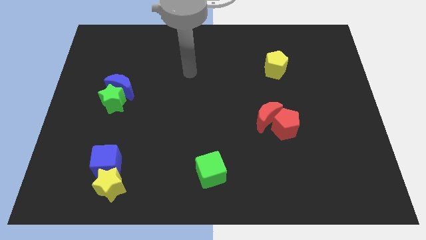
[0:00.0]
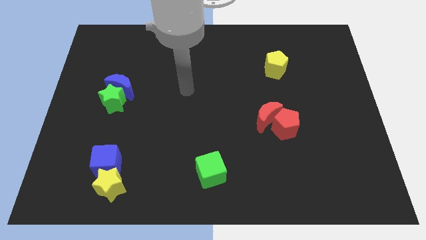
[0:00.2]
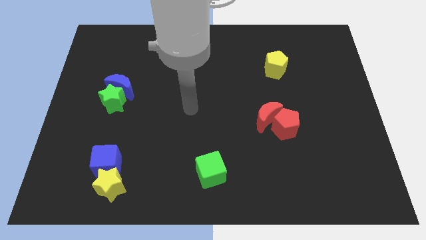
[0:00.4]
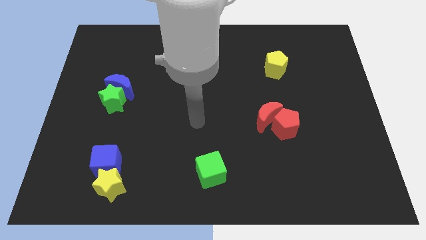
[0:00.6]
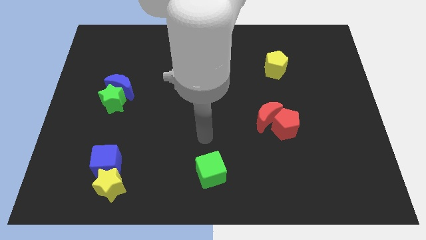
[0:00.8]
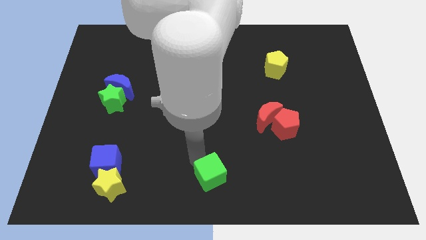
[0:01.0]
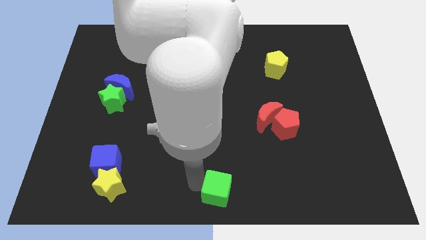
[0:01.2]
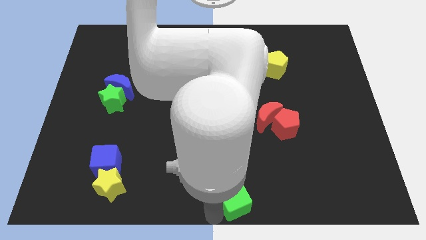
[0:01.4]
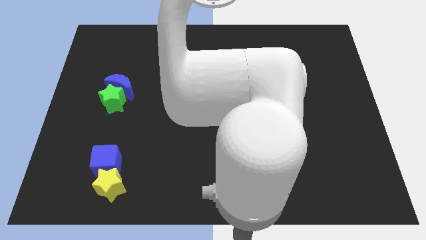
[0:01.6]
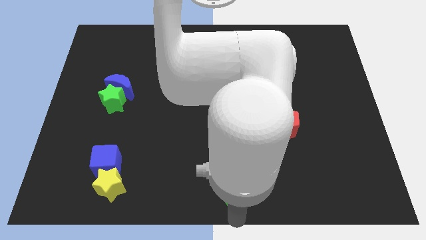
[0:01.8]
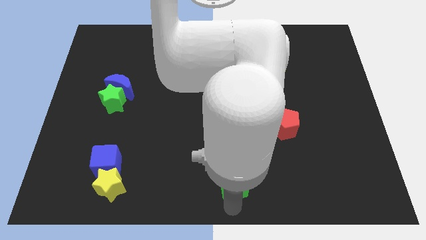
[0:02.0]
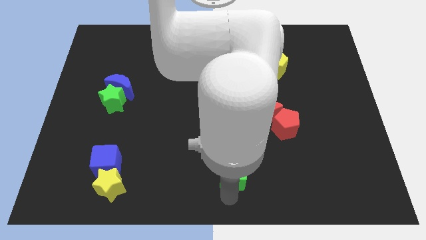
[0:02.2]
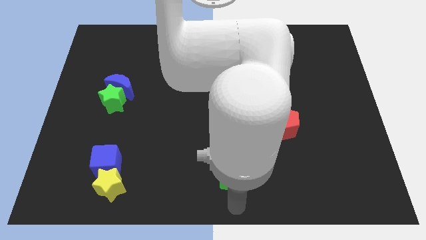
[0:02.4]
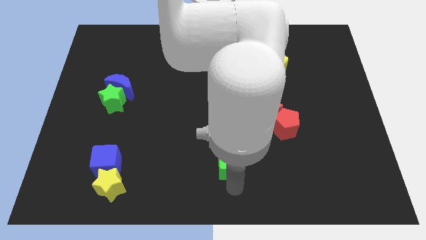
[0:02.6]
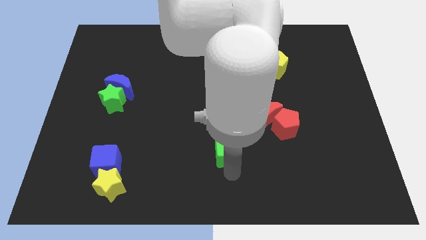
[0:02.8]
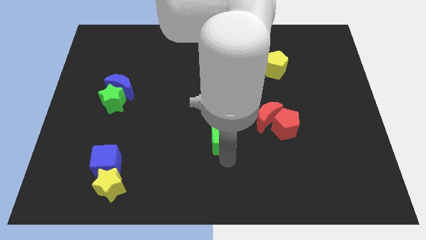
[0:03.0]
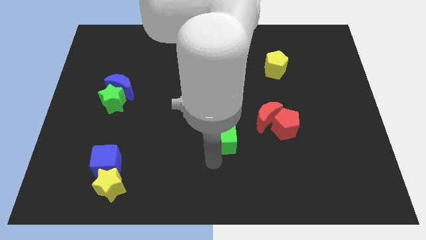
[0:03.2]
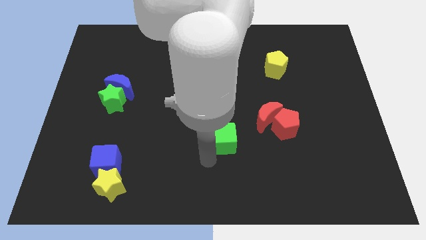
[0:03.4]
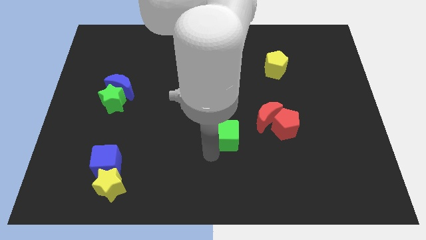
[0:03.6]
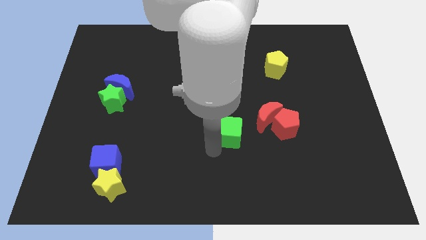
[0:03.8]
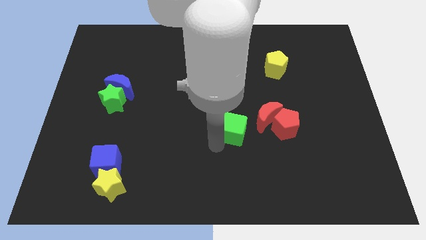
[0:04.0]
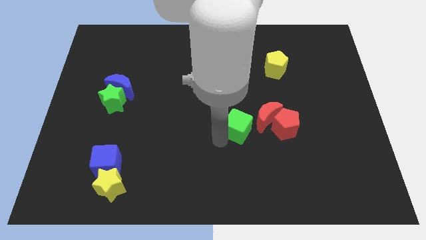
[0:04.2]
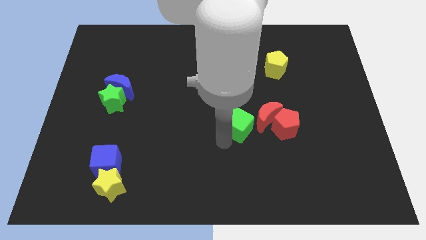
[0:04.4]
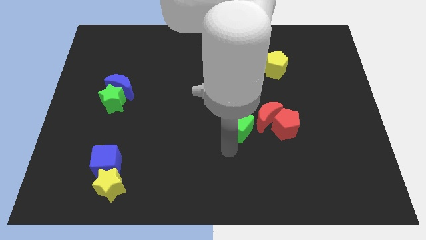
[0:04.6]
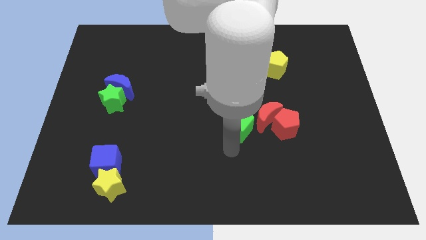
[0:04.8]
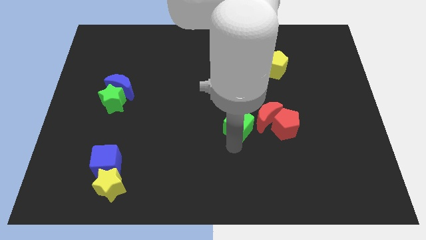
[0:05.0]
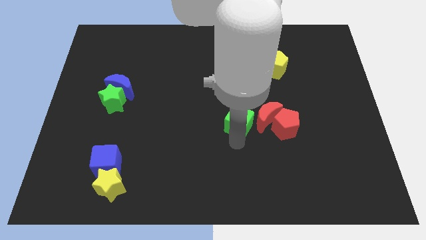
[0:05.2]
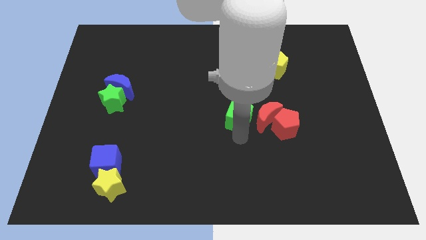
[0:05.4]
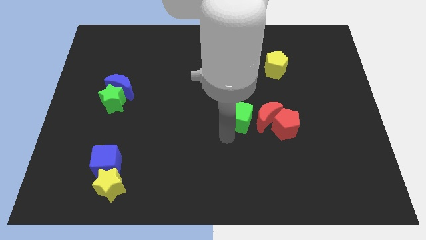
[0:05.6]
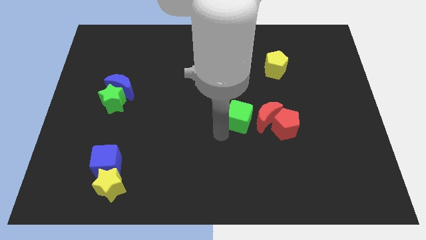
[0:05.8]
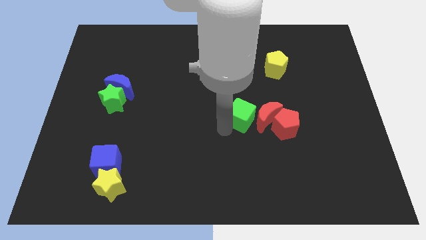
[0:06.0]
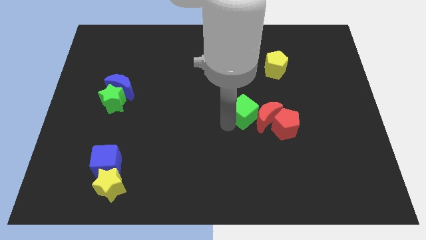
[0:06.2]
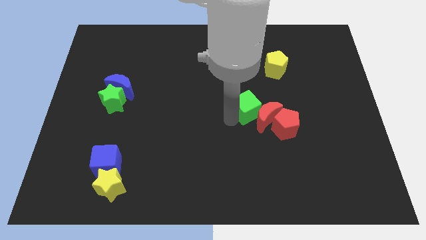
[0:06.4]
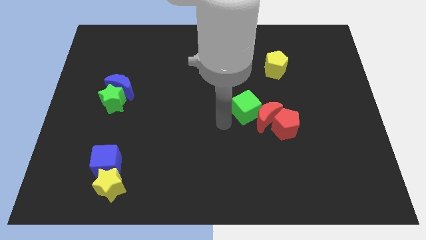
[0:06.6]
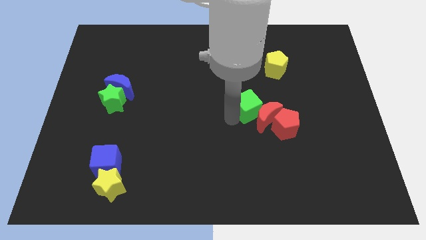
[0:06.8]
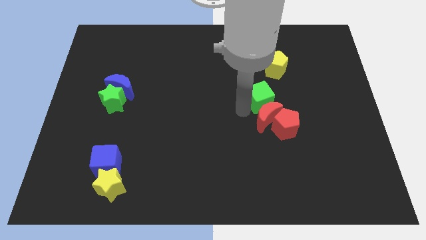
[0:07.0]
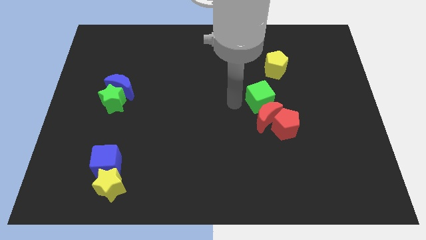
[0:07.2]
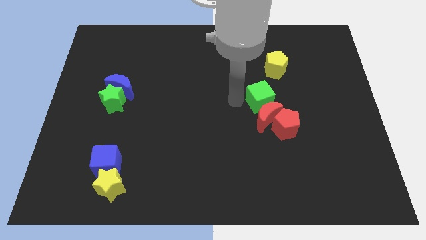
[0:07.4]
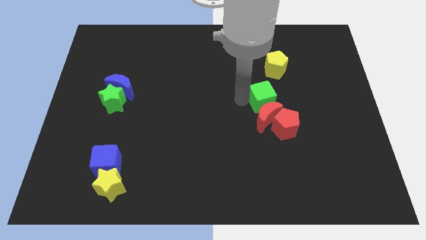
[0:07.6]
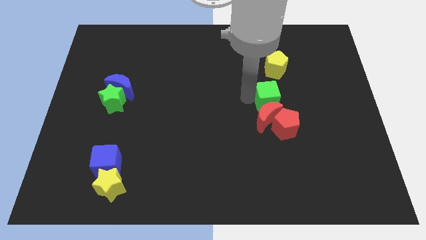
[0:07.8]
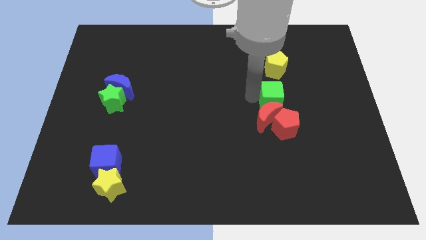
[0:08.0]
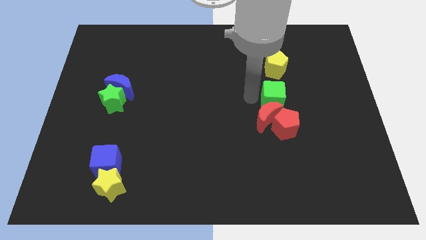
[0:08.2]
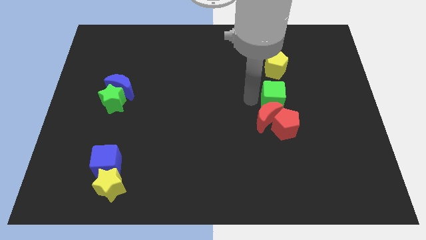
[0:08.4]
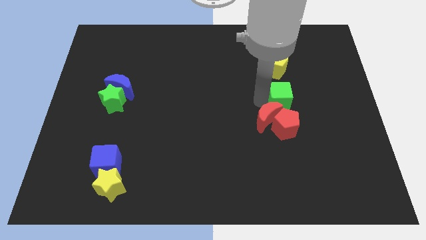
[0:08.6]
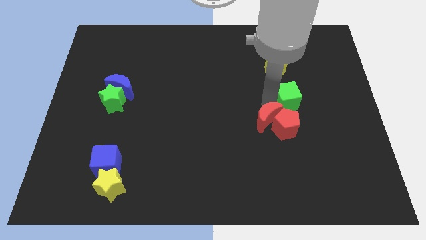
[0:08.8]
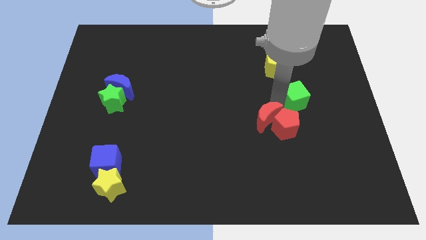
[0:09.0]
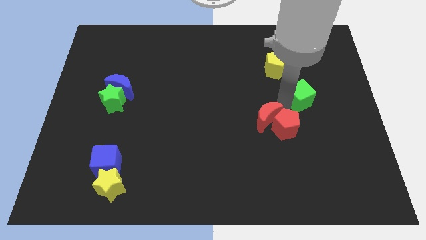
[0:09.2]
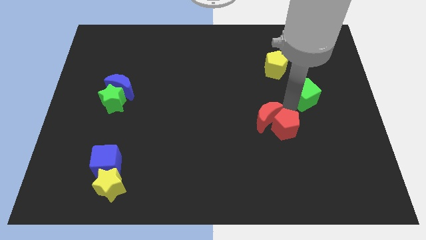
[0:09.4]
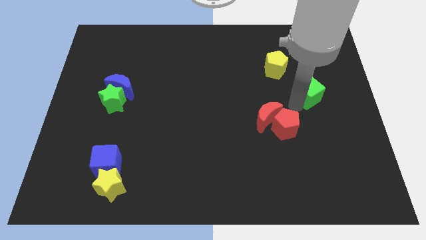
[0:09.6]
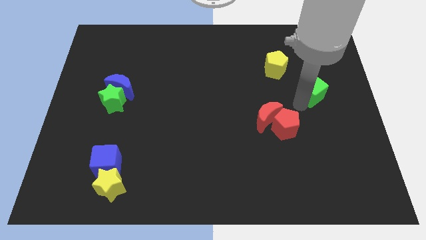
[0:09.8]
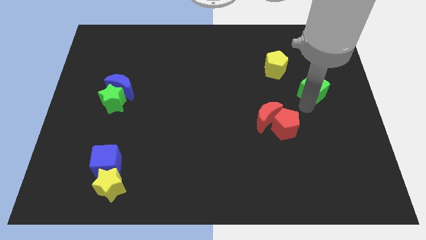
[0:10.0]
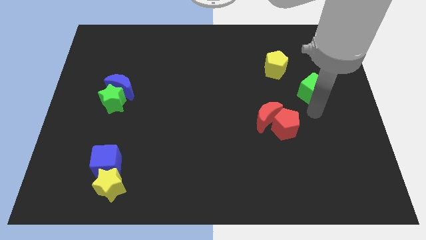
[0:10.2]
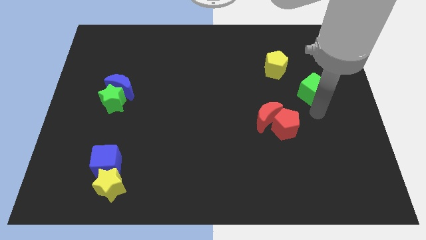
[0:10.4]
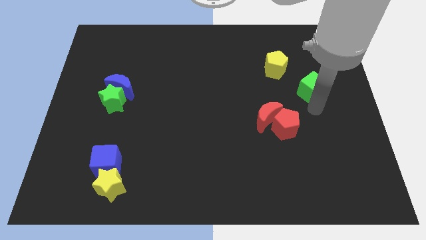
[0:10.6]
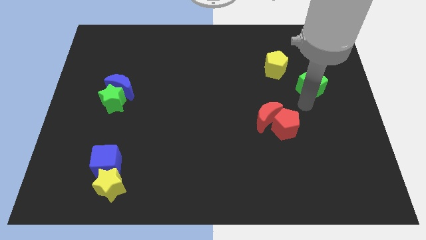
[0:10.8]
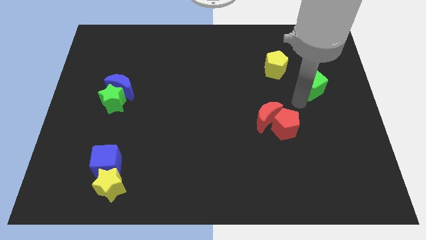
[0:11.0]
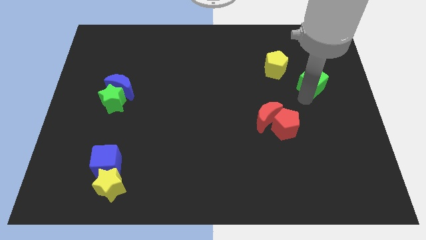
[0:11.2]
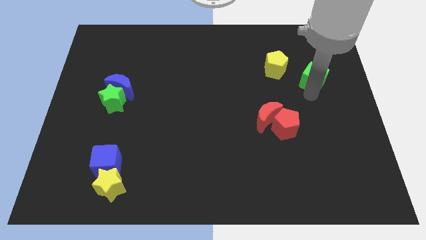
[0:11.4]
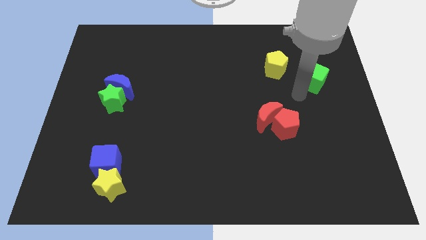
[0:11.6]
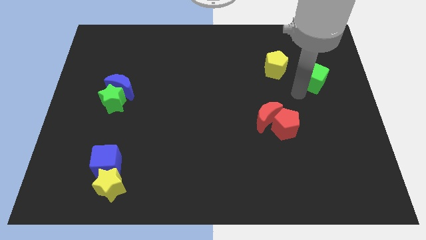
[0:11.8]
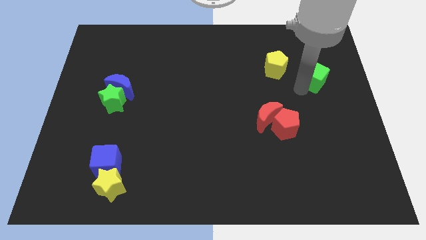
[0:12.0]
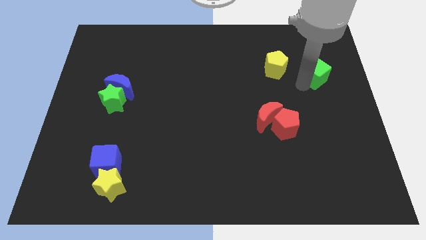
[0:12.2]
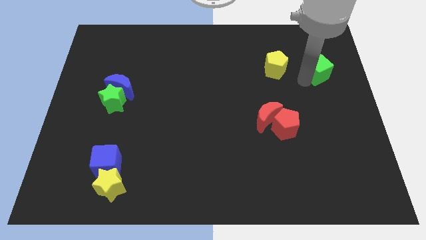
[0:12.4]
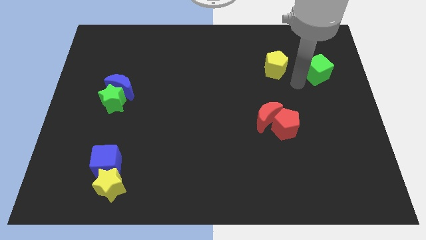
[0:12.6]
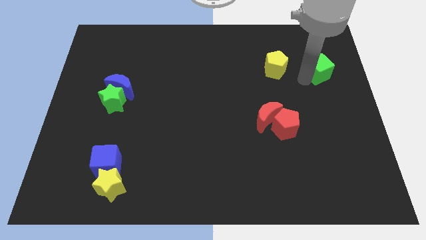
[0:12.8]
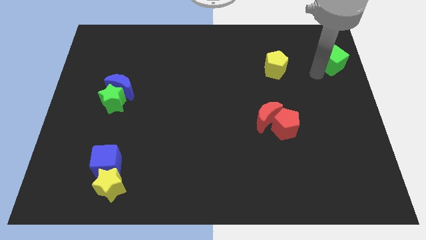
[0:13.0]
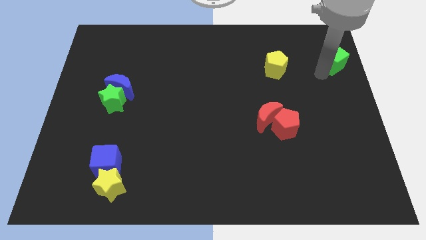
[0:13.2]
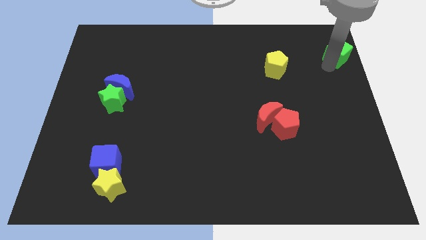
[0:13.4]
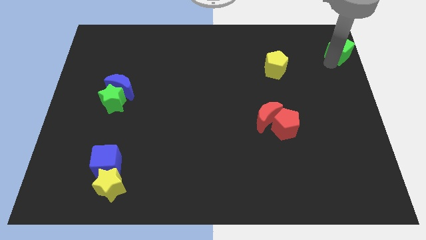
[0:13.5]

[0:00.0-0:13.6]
move the green cube to the top right corner

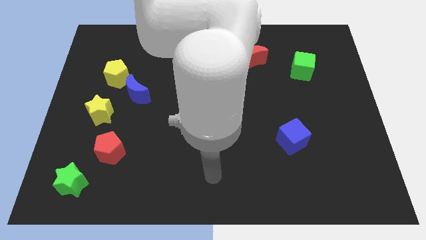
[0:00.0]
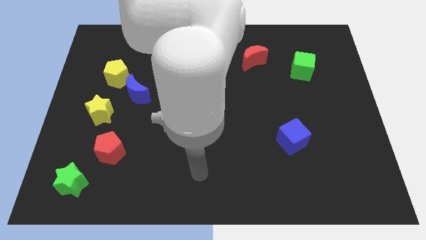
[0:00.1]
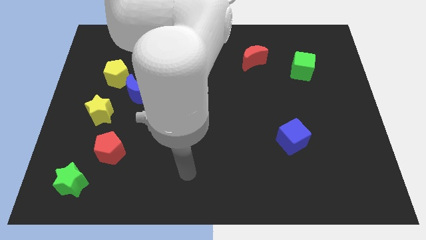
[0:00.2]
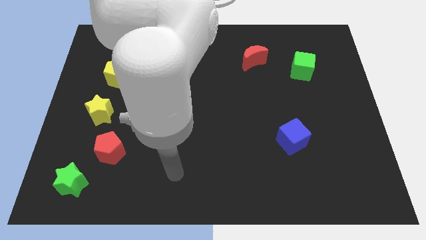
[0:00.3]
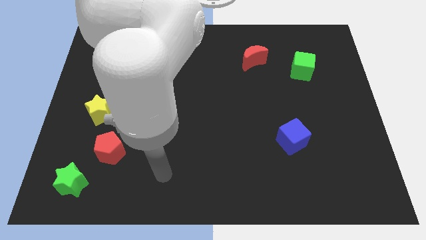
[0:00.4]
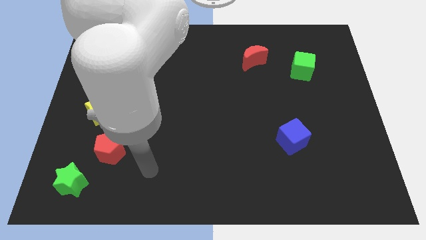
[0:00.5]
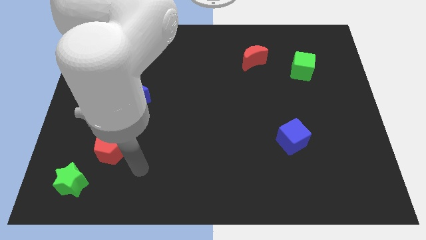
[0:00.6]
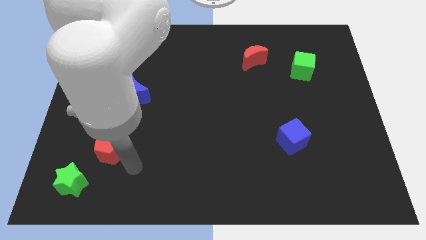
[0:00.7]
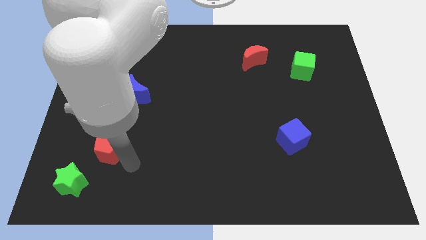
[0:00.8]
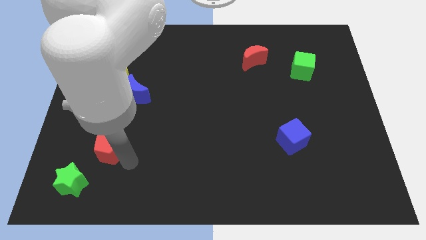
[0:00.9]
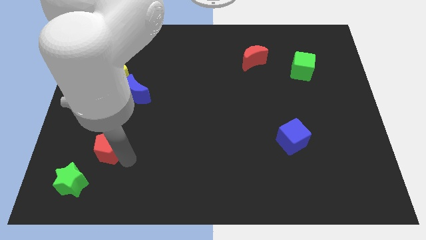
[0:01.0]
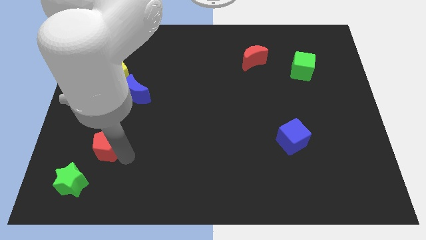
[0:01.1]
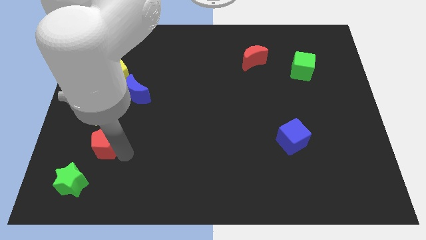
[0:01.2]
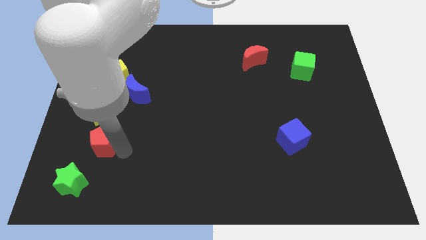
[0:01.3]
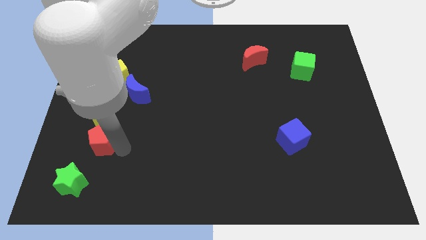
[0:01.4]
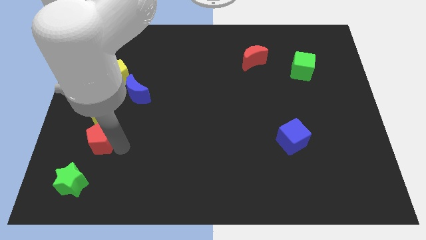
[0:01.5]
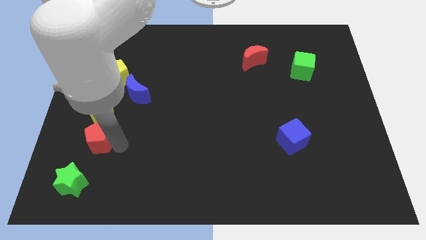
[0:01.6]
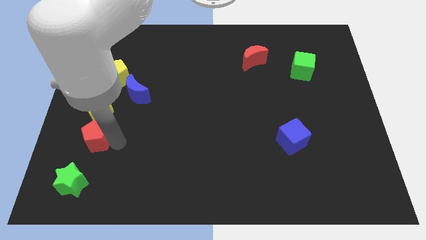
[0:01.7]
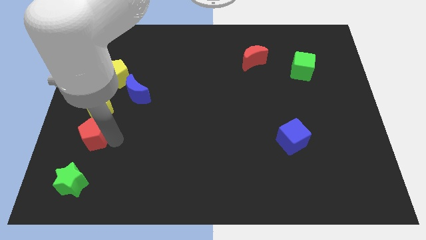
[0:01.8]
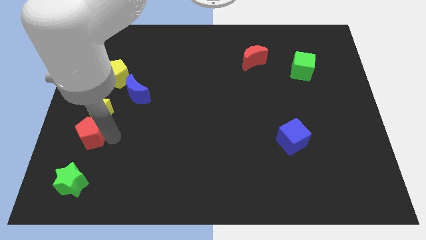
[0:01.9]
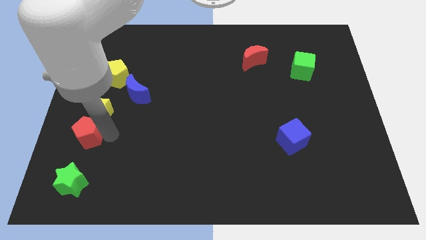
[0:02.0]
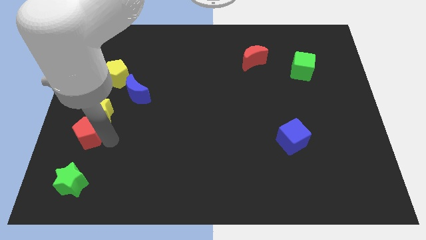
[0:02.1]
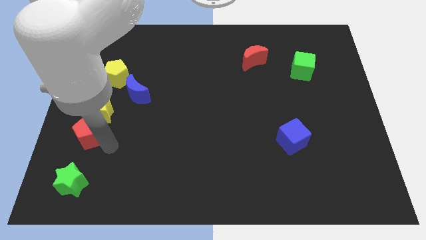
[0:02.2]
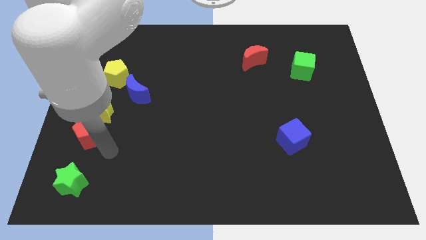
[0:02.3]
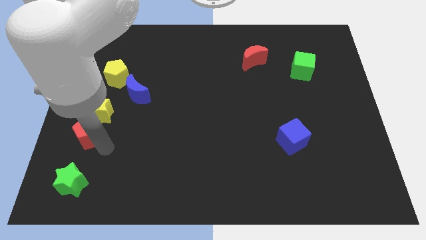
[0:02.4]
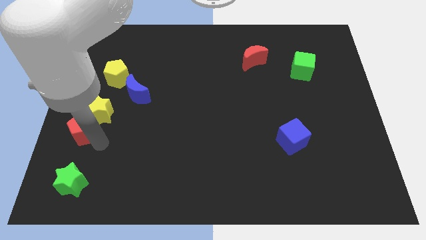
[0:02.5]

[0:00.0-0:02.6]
move the red pentagon to the left side of the board
